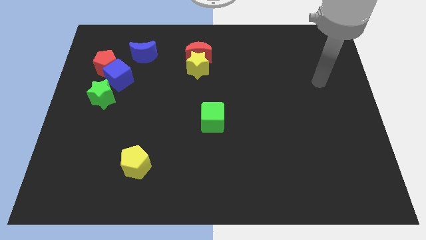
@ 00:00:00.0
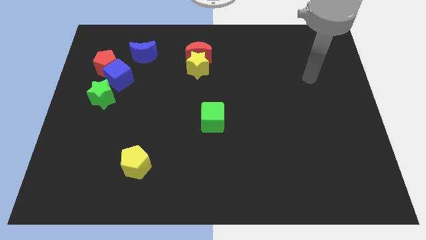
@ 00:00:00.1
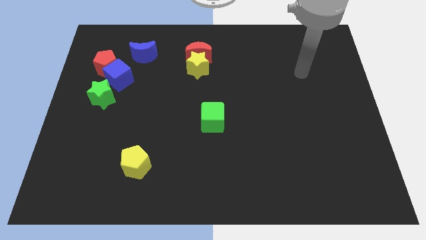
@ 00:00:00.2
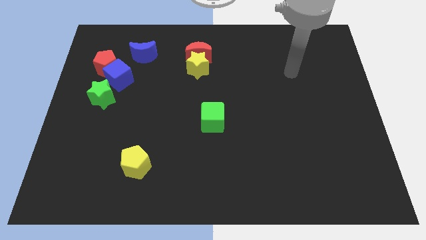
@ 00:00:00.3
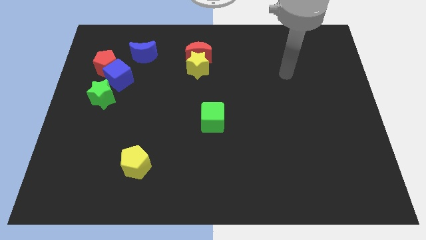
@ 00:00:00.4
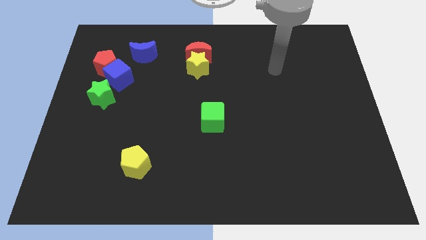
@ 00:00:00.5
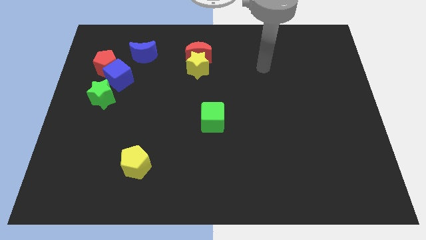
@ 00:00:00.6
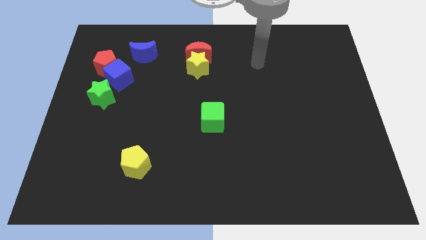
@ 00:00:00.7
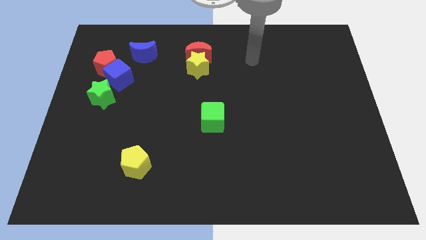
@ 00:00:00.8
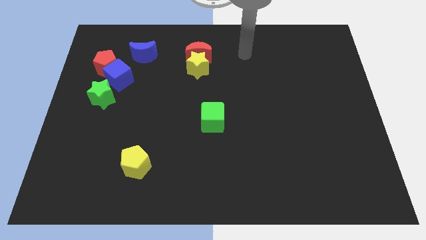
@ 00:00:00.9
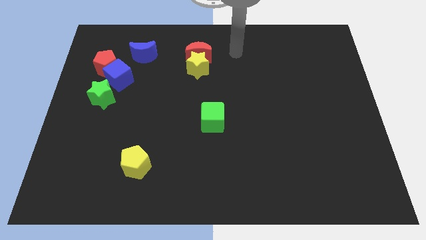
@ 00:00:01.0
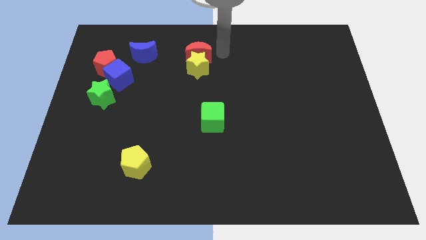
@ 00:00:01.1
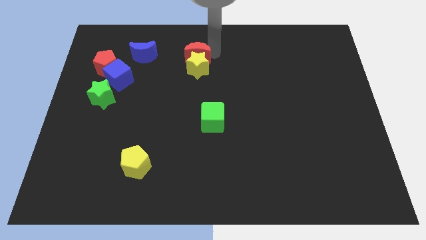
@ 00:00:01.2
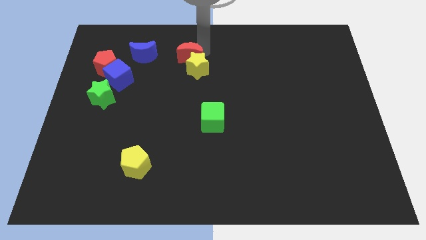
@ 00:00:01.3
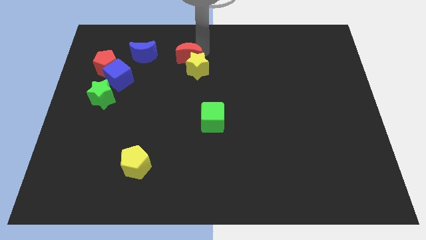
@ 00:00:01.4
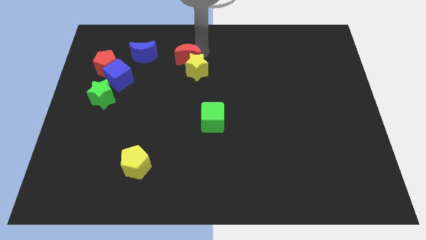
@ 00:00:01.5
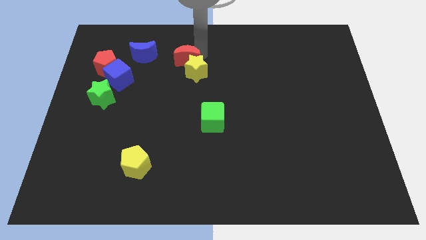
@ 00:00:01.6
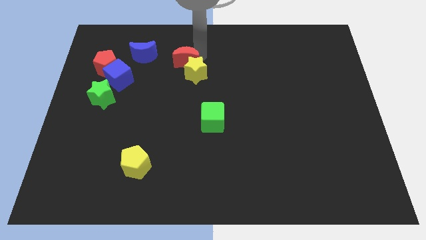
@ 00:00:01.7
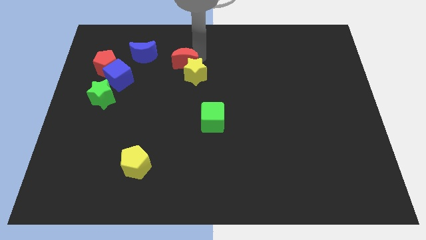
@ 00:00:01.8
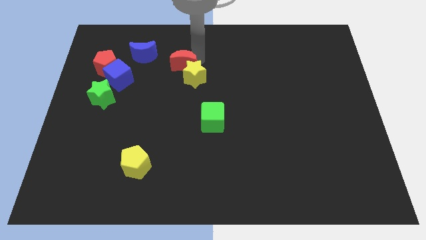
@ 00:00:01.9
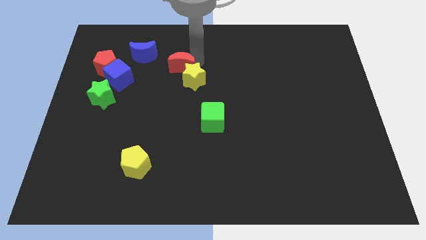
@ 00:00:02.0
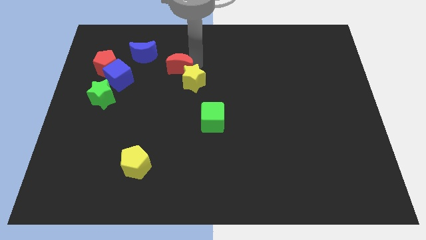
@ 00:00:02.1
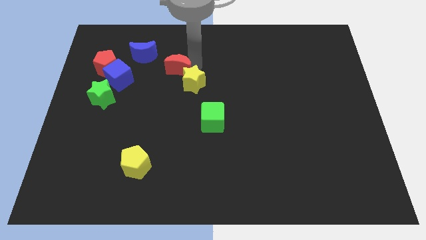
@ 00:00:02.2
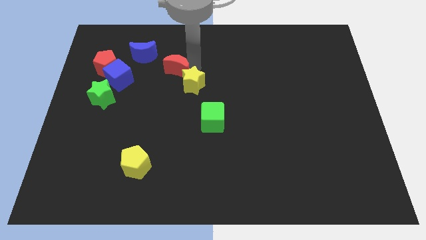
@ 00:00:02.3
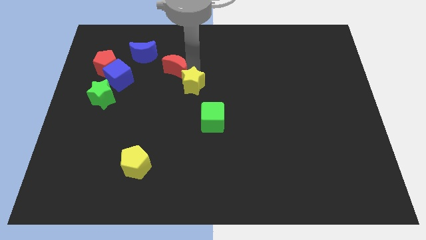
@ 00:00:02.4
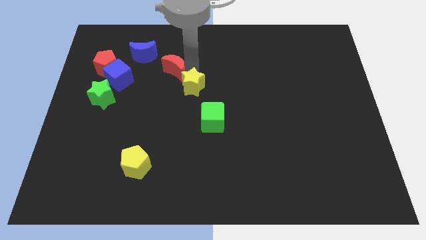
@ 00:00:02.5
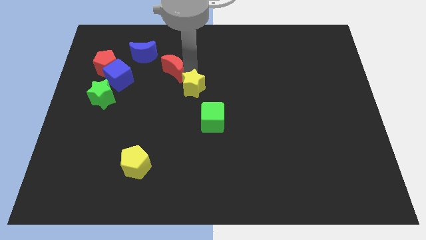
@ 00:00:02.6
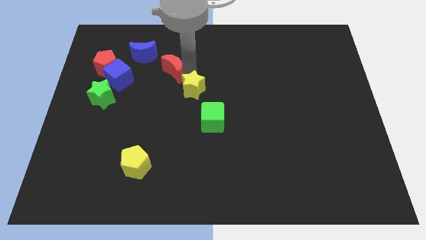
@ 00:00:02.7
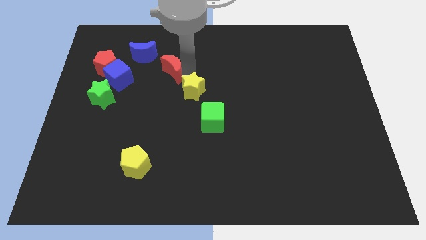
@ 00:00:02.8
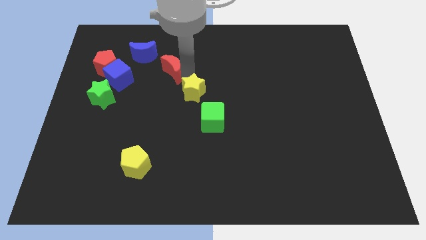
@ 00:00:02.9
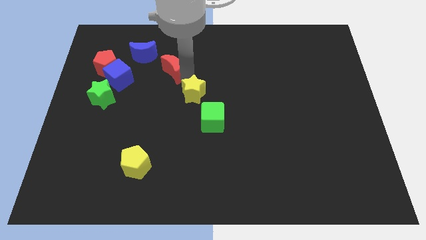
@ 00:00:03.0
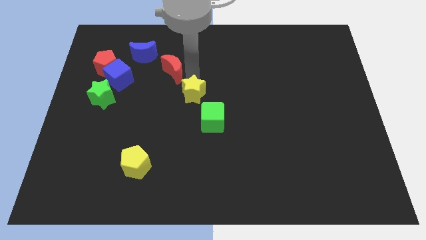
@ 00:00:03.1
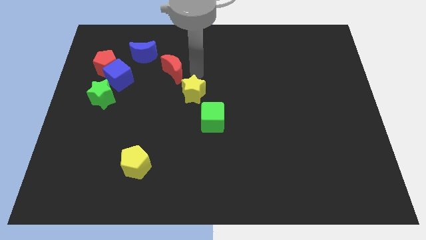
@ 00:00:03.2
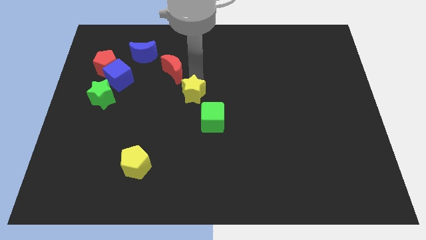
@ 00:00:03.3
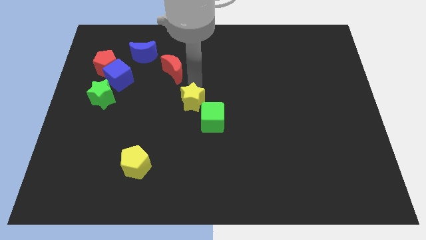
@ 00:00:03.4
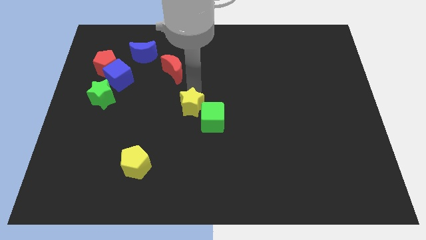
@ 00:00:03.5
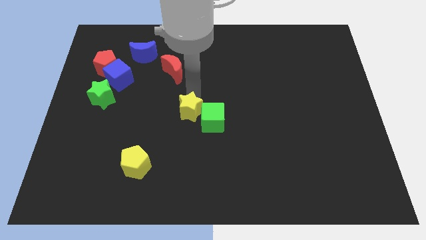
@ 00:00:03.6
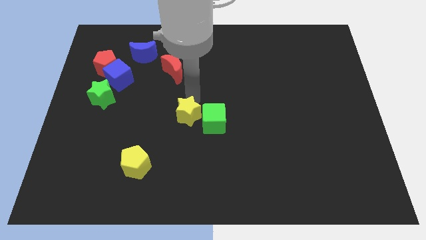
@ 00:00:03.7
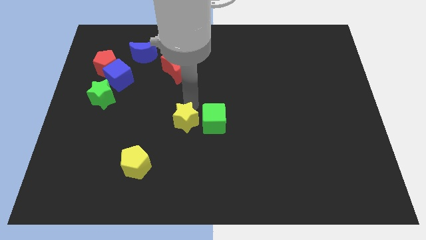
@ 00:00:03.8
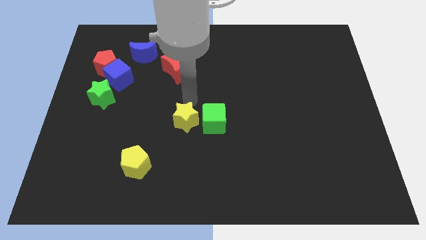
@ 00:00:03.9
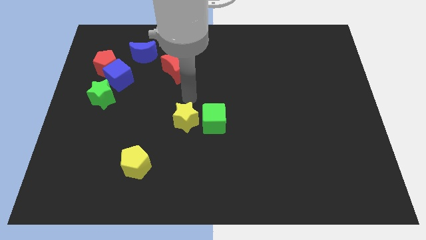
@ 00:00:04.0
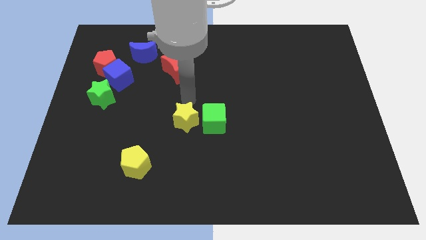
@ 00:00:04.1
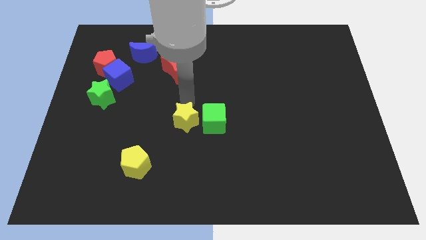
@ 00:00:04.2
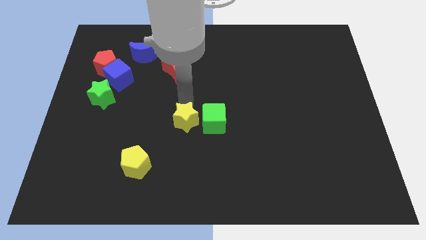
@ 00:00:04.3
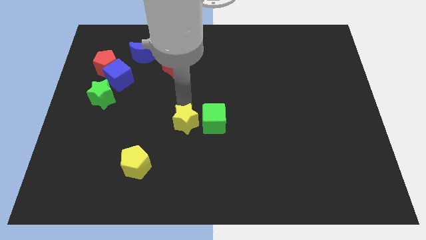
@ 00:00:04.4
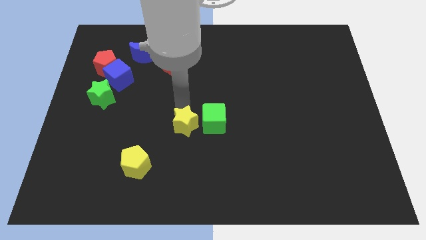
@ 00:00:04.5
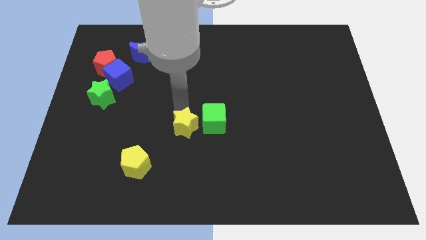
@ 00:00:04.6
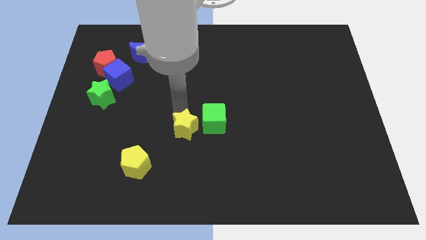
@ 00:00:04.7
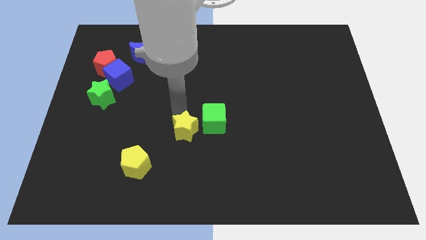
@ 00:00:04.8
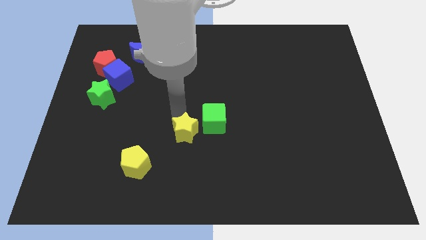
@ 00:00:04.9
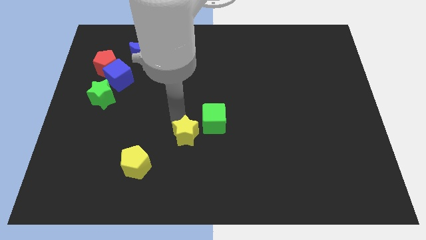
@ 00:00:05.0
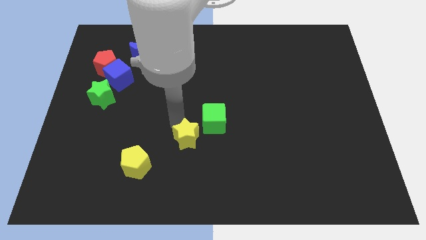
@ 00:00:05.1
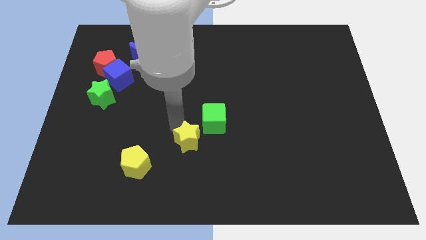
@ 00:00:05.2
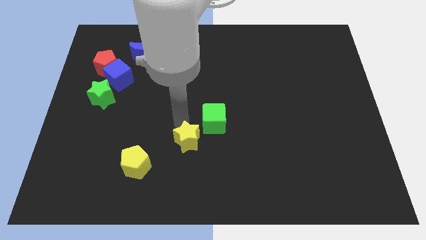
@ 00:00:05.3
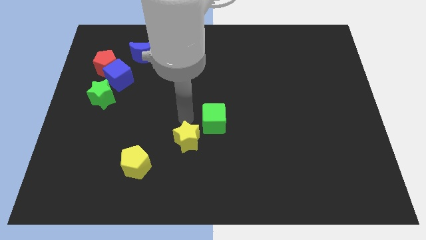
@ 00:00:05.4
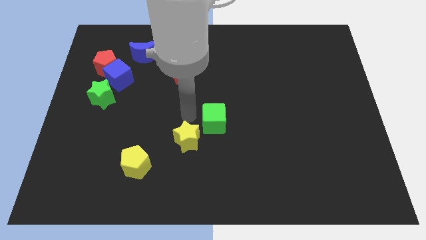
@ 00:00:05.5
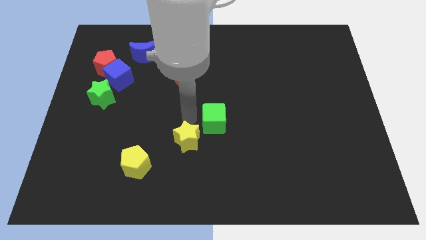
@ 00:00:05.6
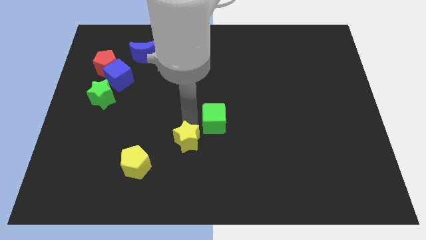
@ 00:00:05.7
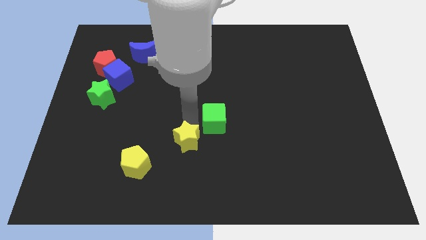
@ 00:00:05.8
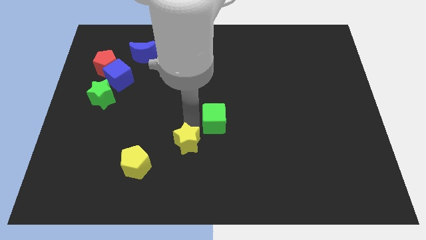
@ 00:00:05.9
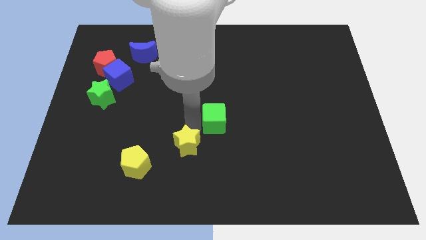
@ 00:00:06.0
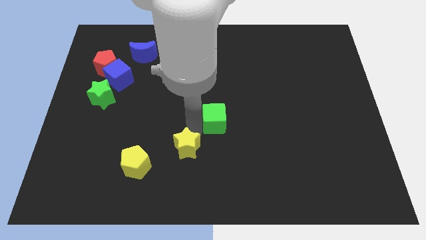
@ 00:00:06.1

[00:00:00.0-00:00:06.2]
put the yellow star just right of the yellow pentagon

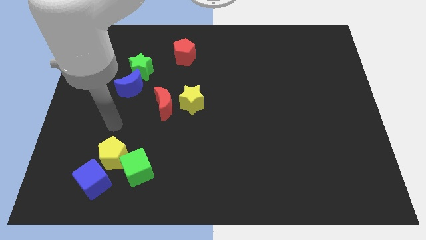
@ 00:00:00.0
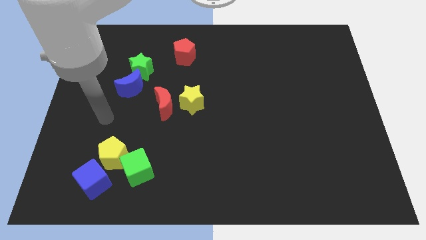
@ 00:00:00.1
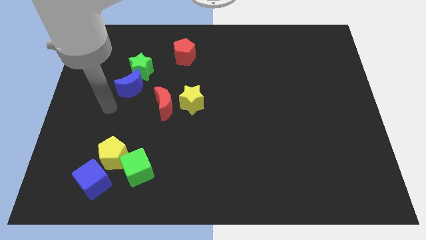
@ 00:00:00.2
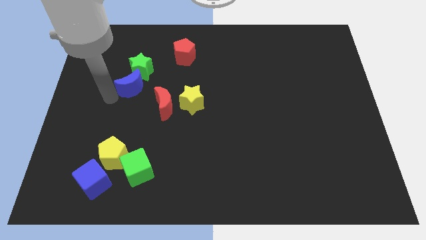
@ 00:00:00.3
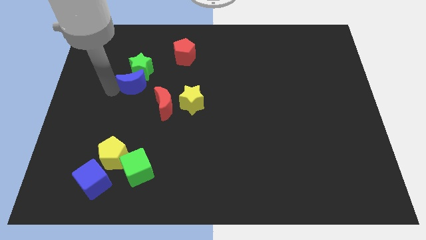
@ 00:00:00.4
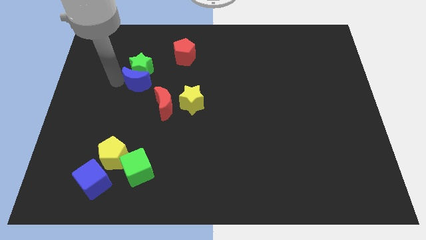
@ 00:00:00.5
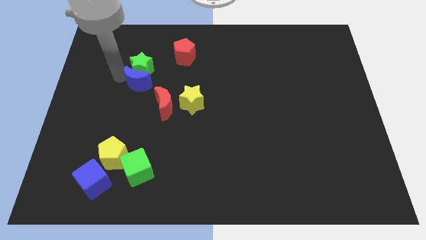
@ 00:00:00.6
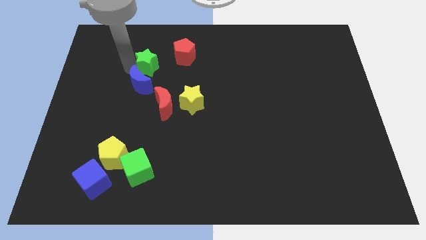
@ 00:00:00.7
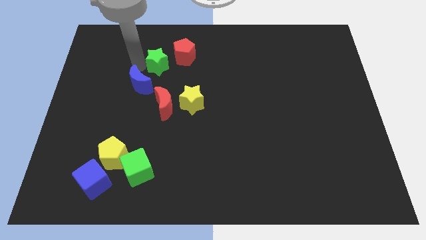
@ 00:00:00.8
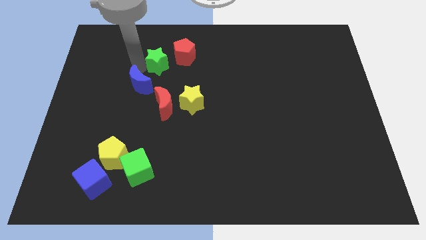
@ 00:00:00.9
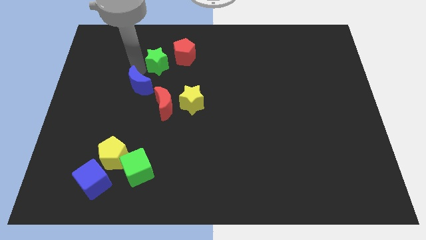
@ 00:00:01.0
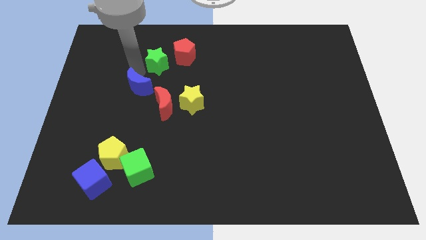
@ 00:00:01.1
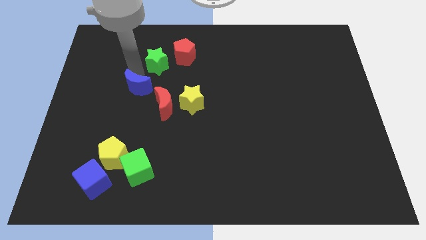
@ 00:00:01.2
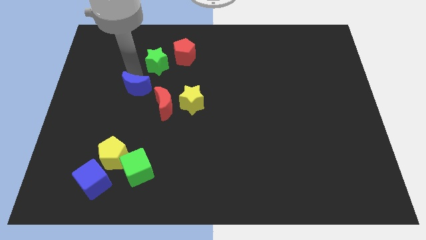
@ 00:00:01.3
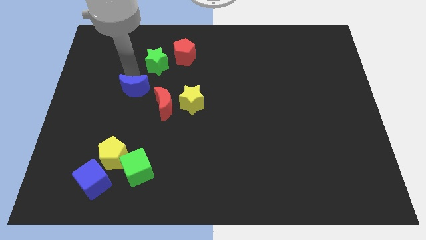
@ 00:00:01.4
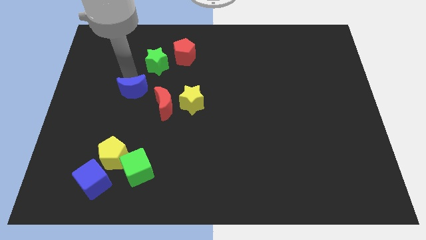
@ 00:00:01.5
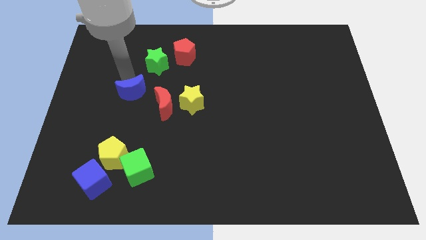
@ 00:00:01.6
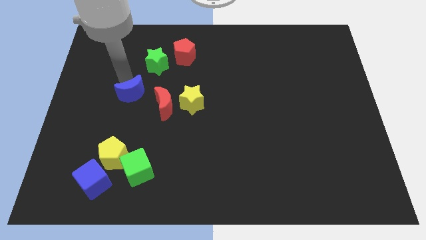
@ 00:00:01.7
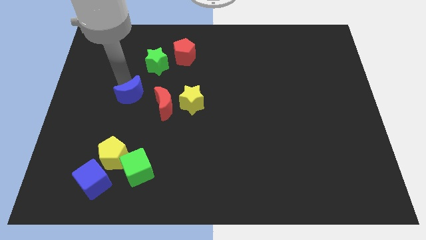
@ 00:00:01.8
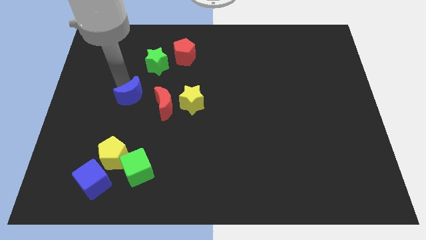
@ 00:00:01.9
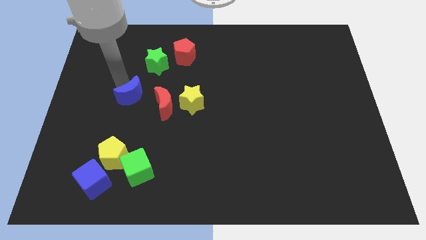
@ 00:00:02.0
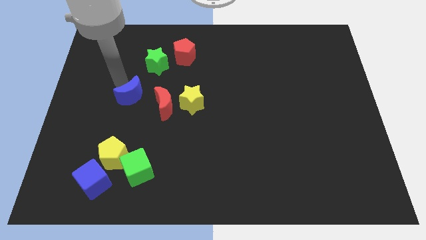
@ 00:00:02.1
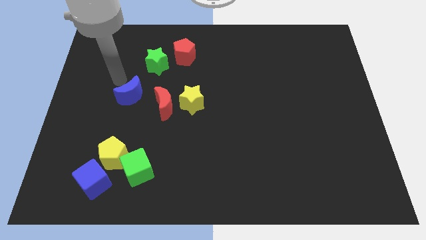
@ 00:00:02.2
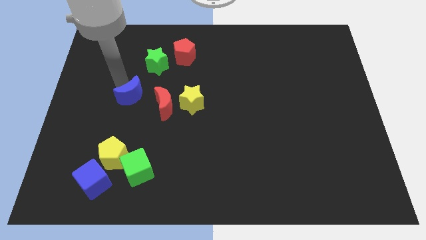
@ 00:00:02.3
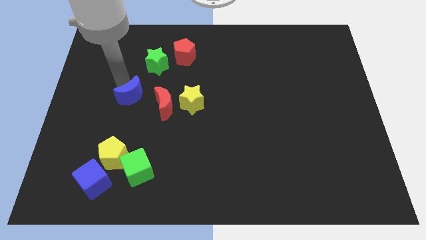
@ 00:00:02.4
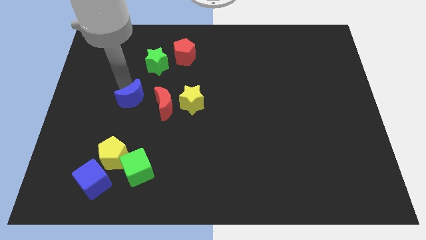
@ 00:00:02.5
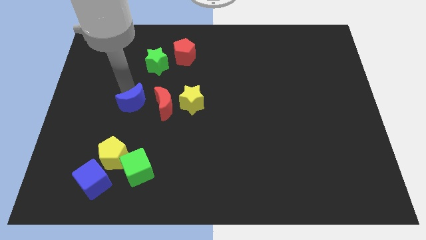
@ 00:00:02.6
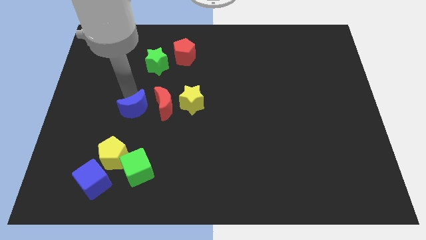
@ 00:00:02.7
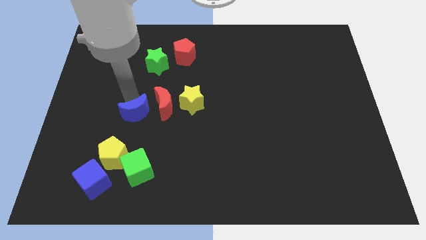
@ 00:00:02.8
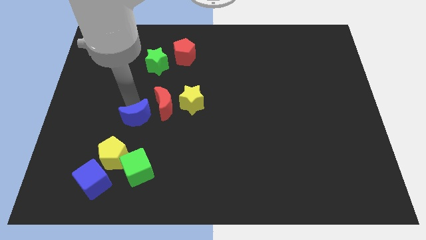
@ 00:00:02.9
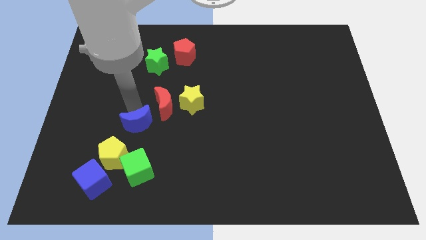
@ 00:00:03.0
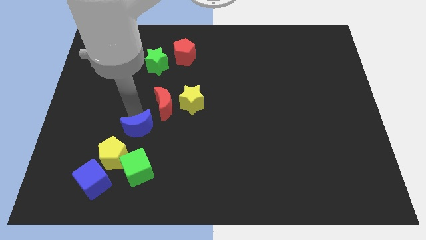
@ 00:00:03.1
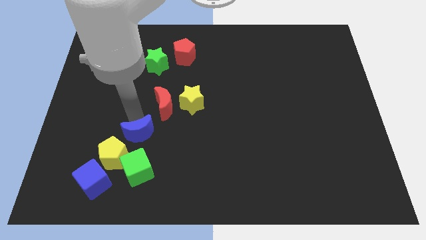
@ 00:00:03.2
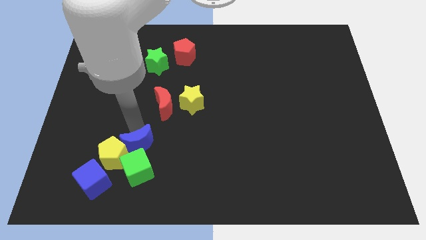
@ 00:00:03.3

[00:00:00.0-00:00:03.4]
push the blue moon right of the yellow pentagon
